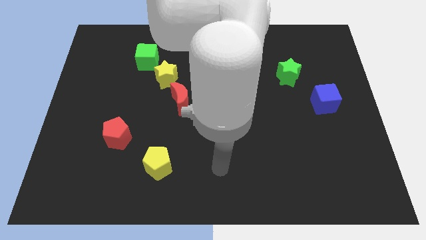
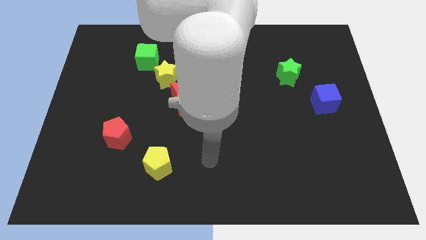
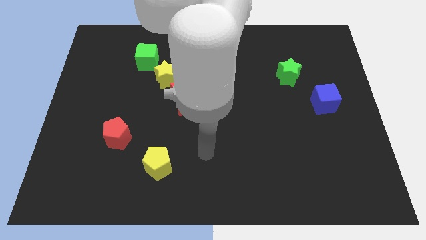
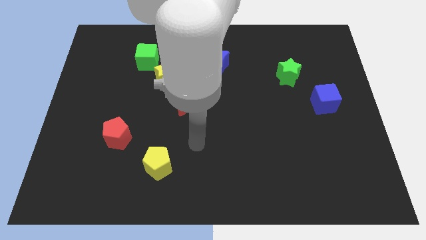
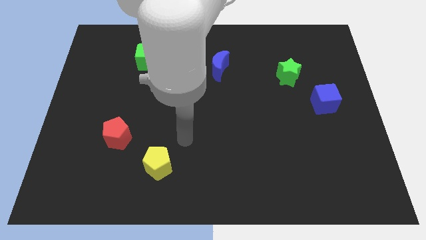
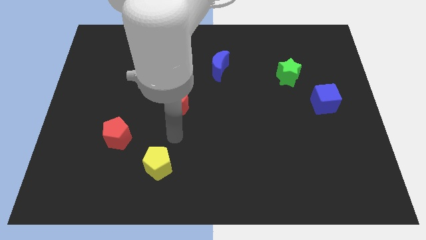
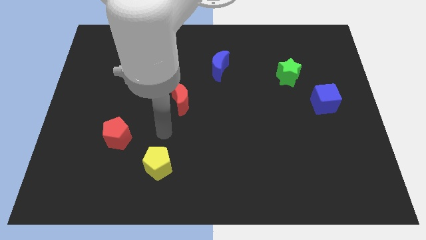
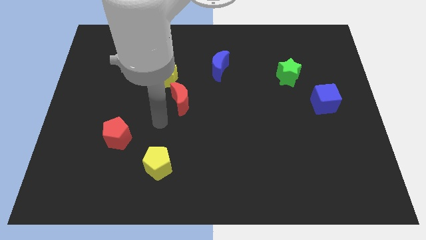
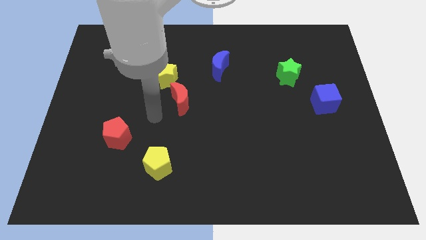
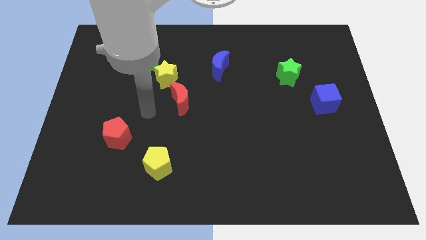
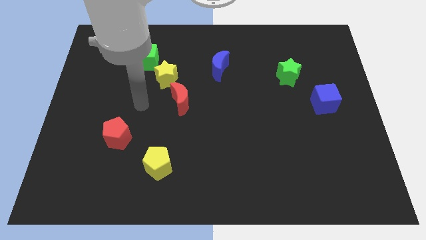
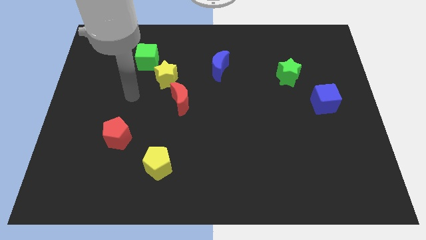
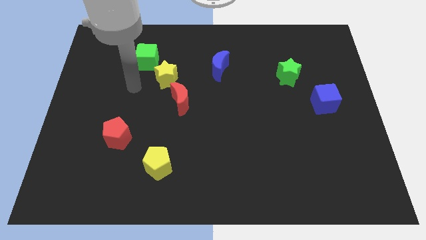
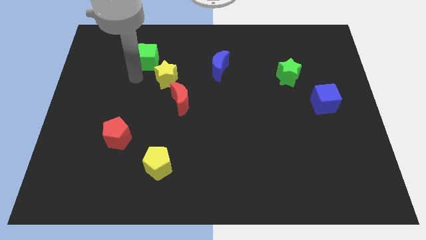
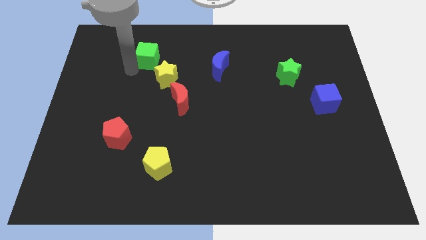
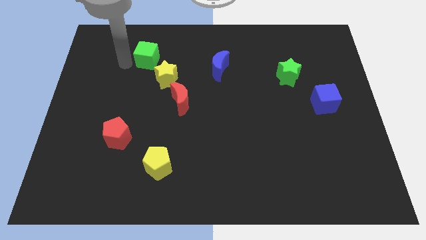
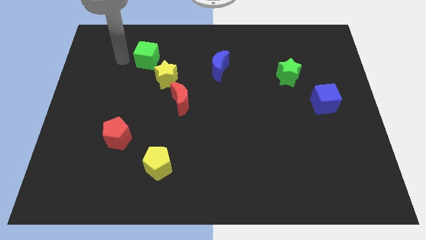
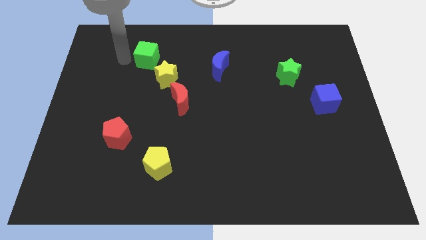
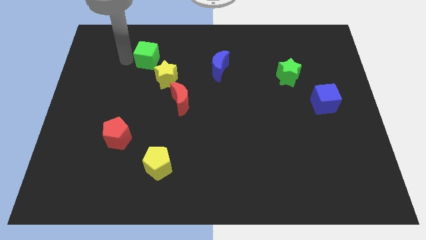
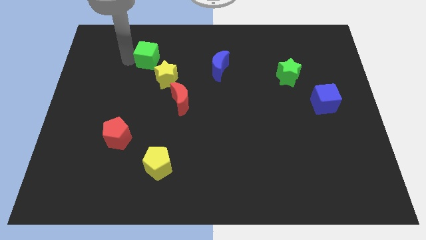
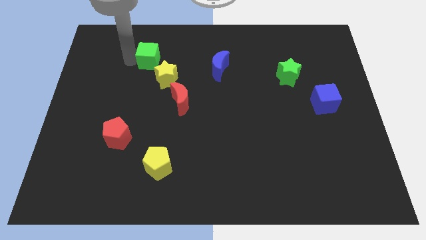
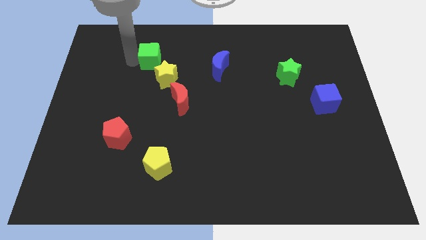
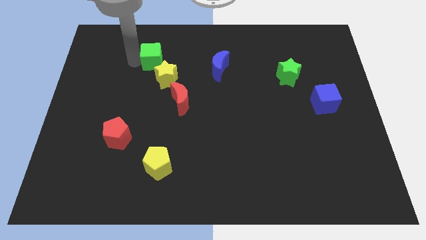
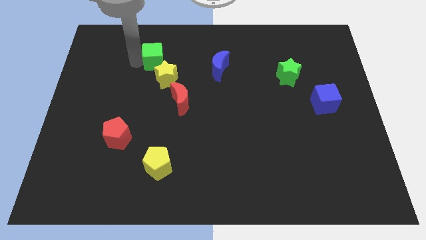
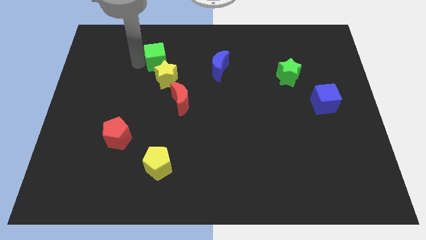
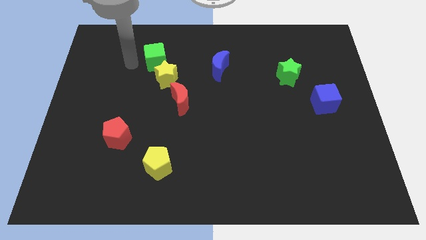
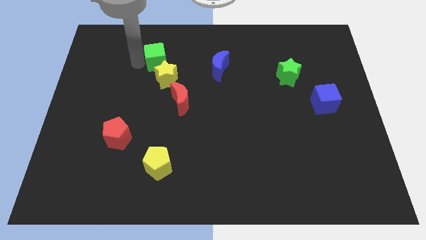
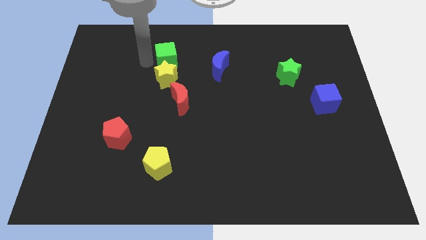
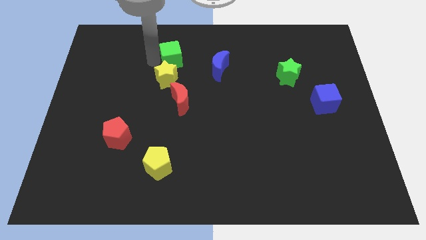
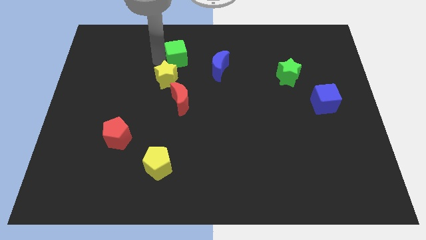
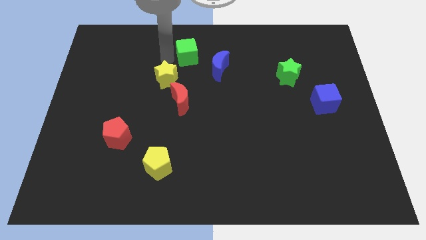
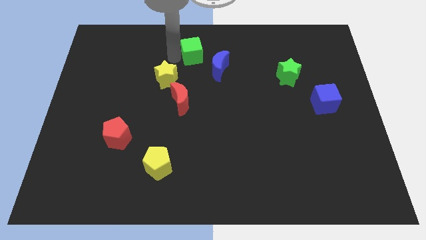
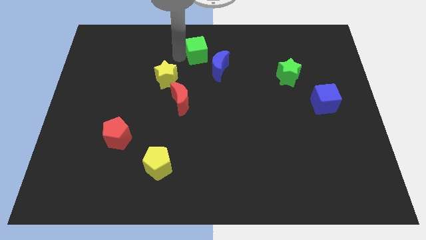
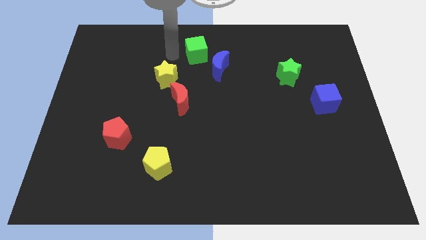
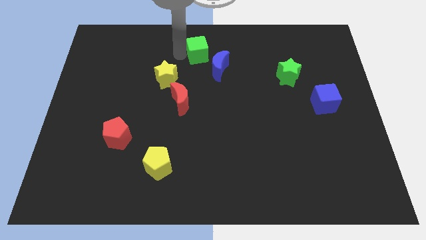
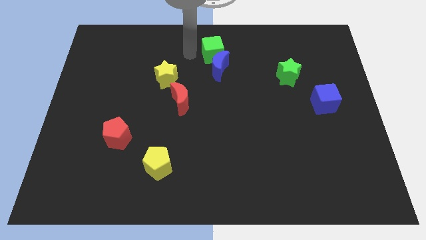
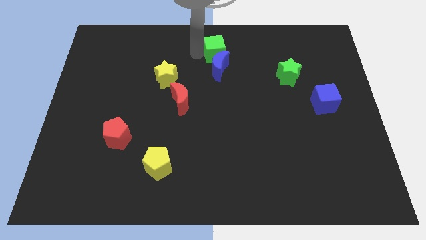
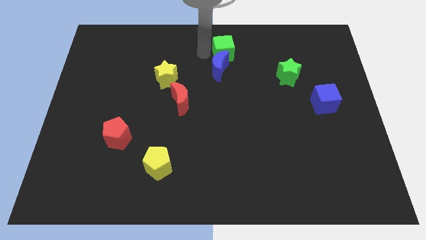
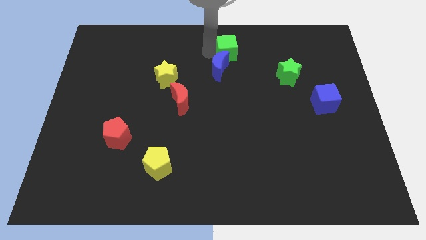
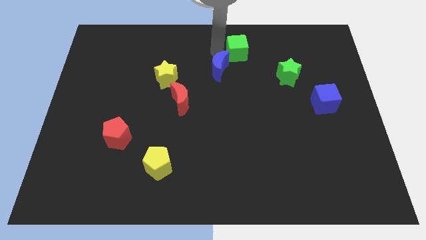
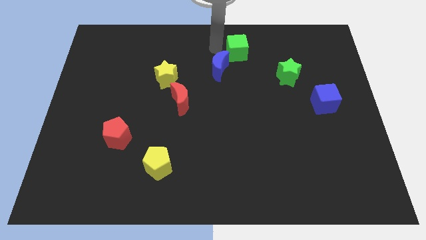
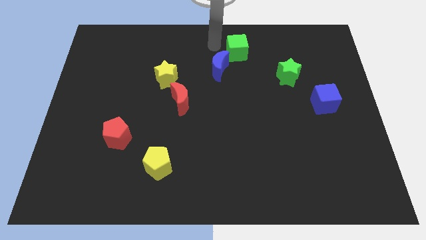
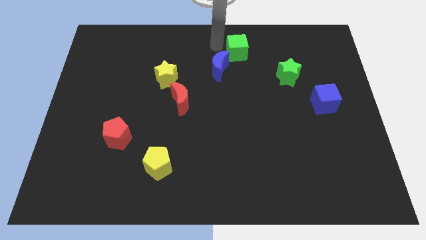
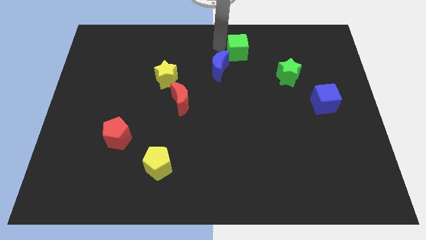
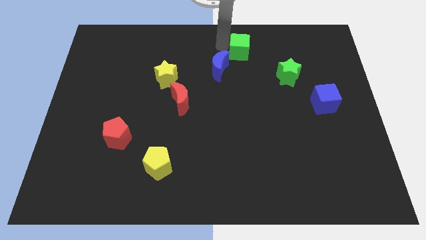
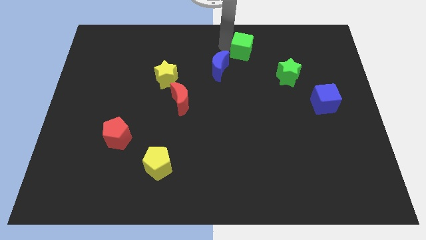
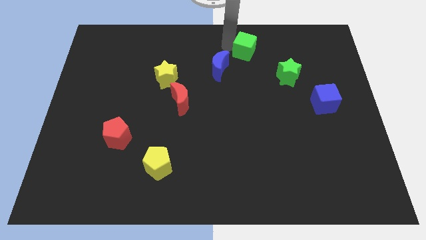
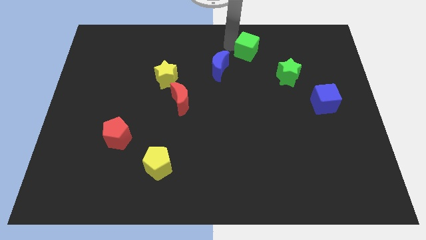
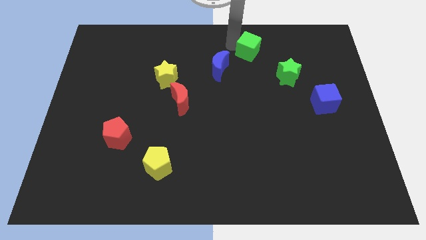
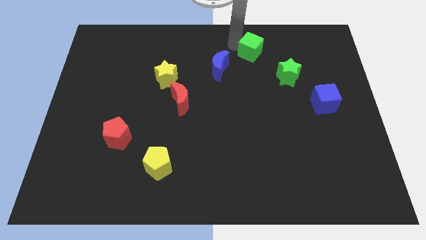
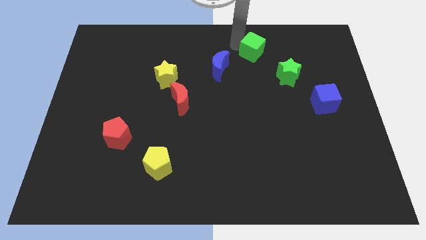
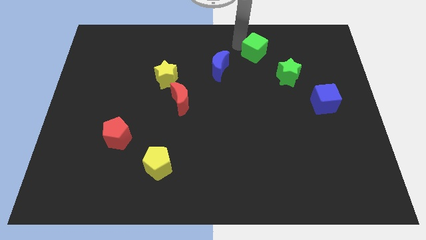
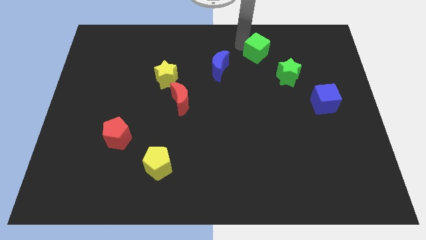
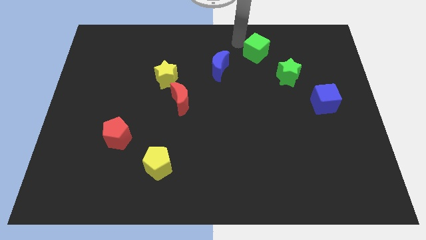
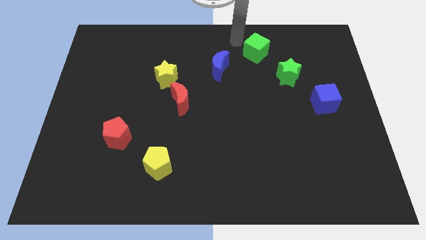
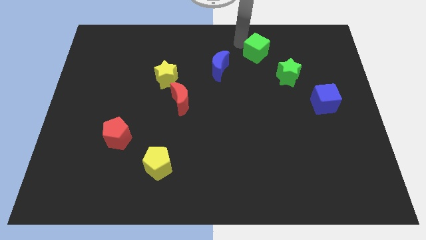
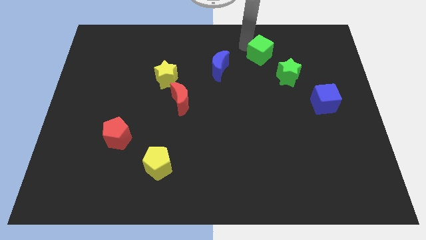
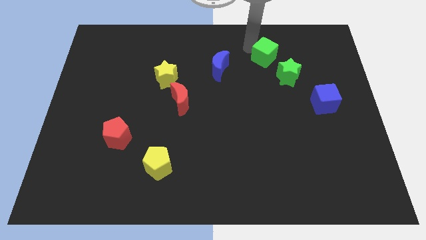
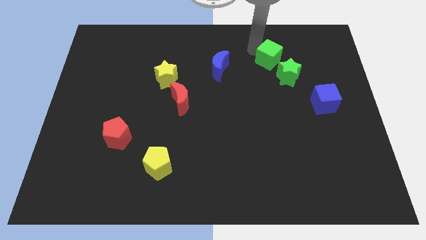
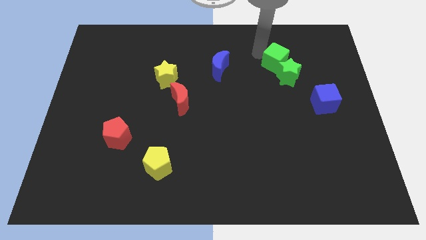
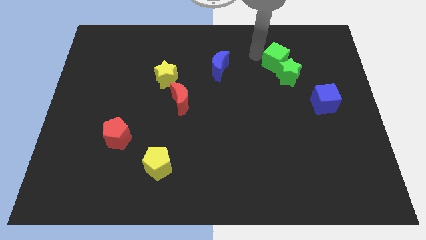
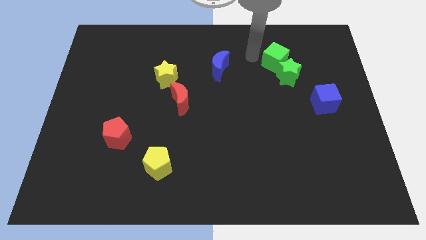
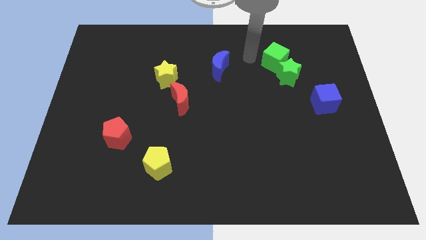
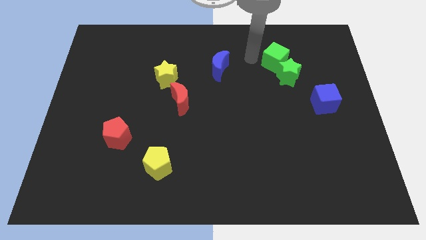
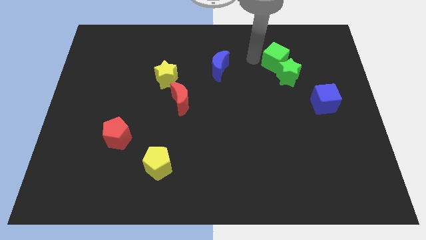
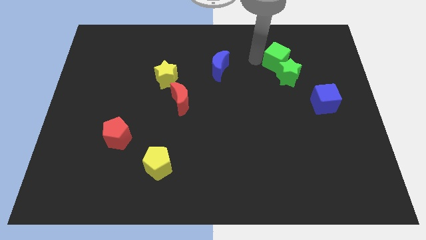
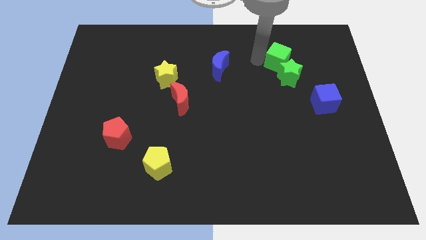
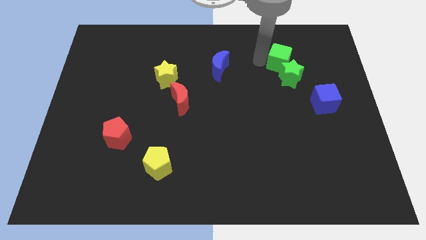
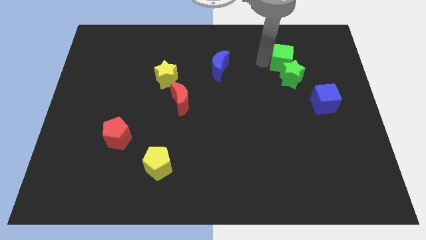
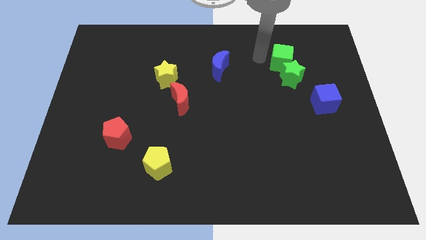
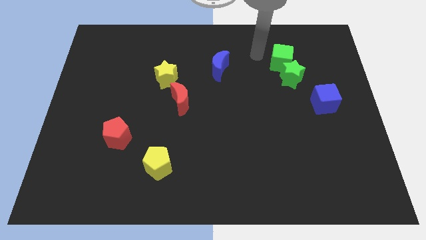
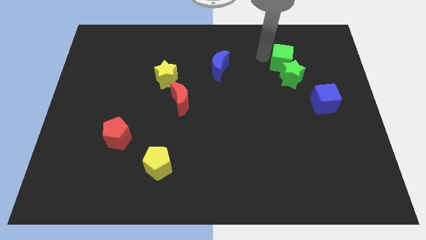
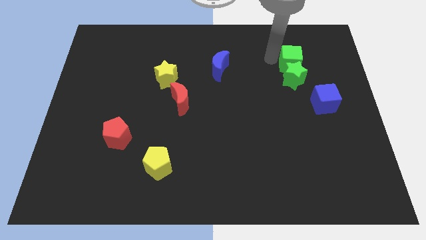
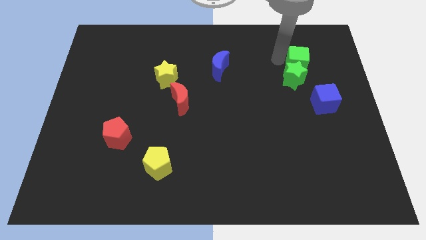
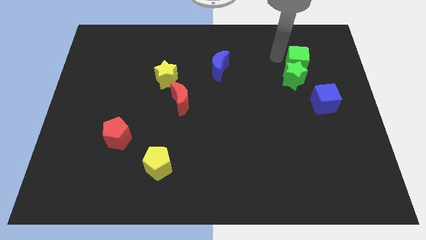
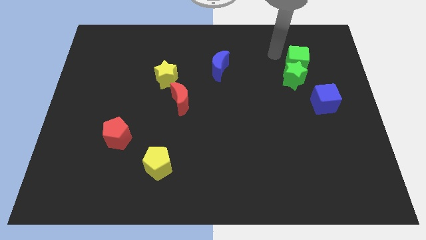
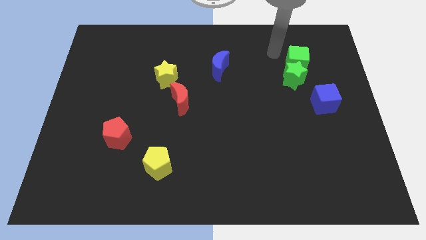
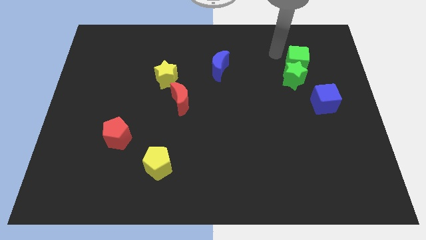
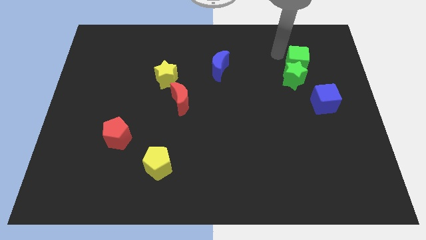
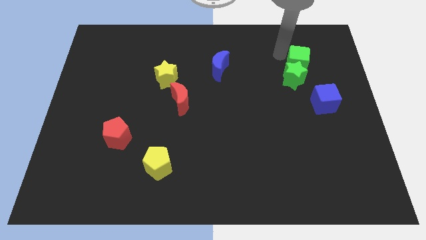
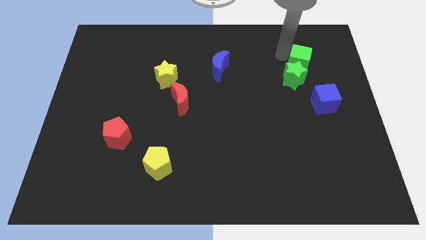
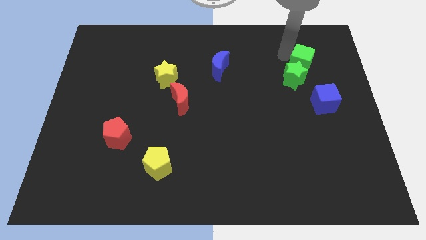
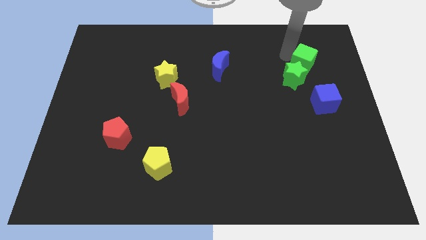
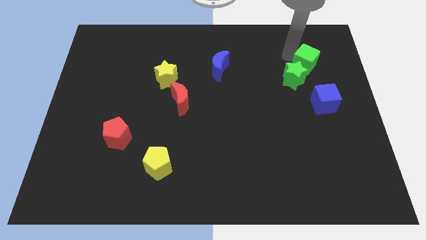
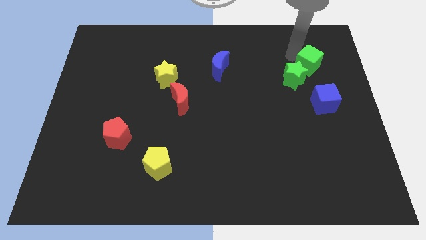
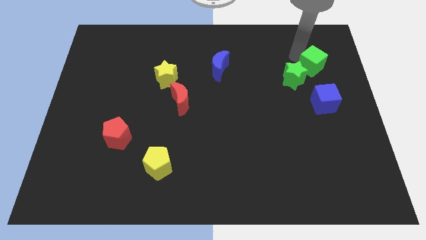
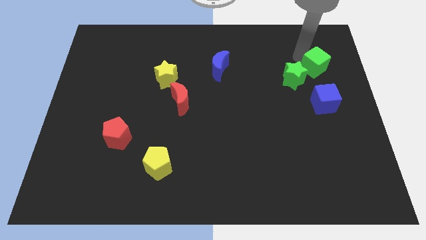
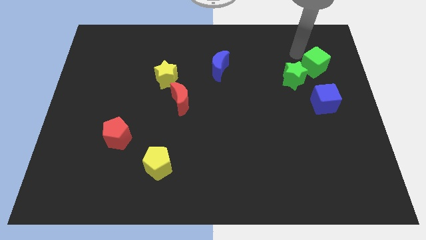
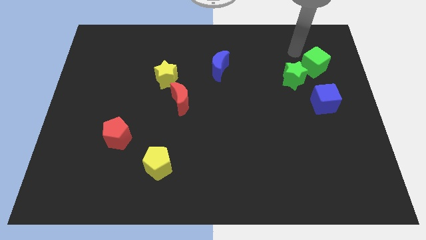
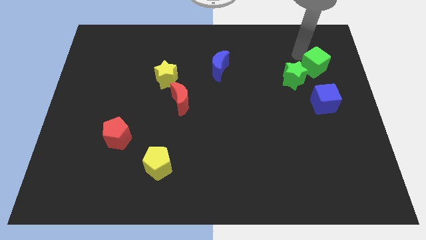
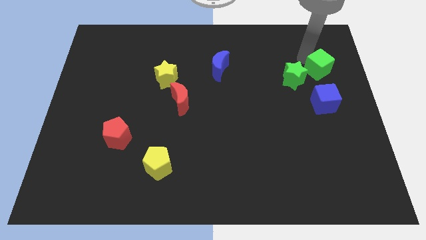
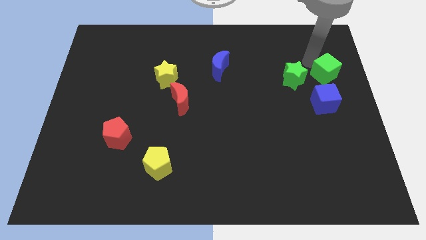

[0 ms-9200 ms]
slide the green cube to the right side
